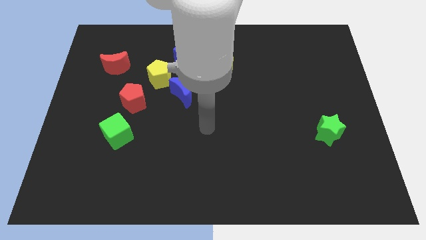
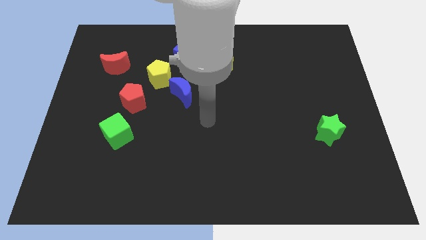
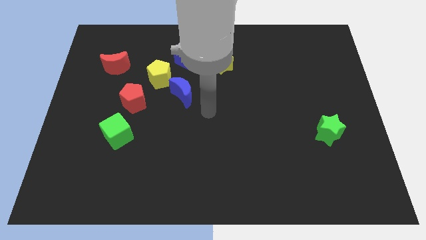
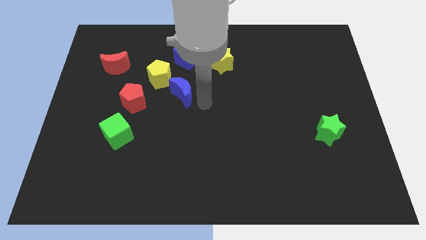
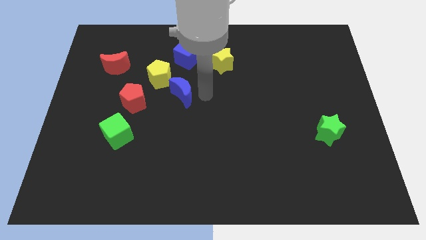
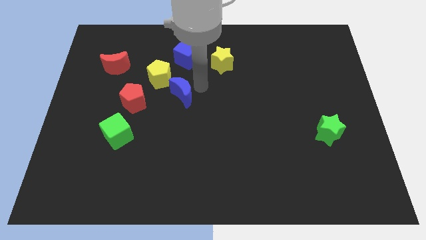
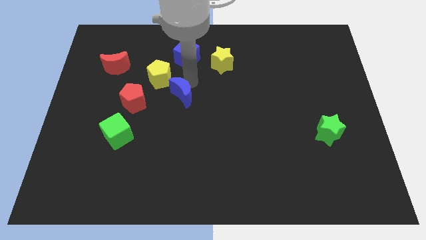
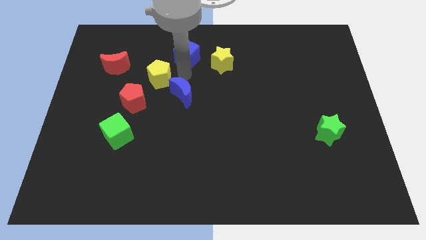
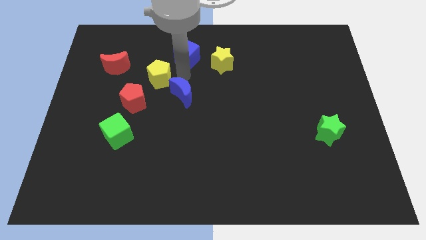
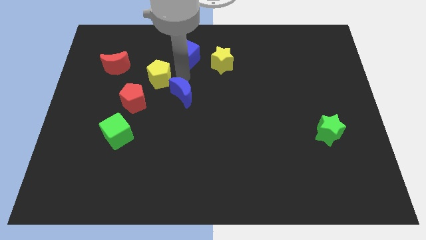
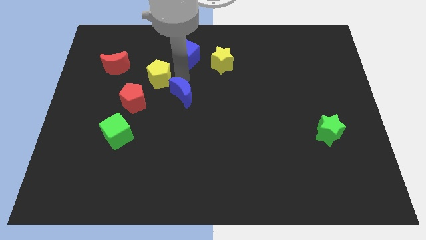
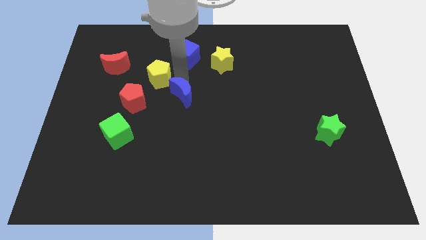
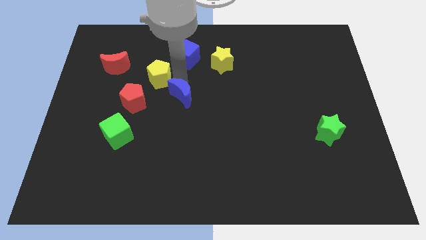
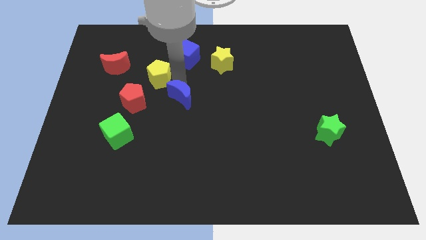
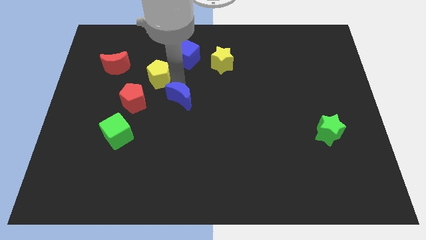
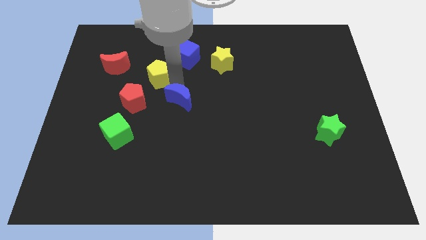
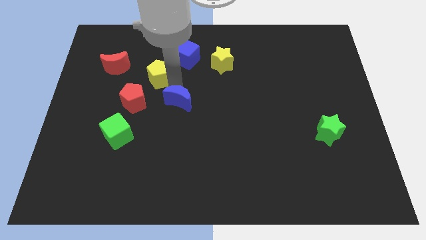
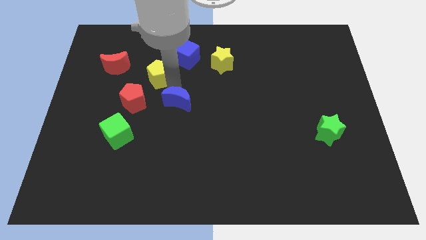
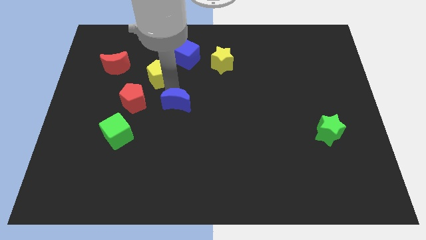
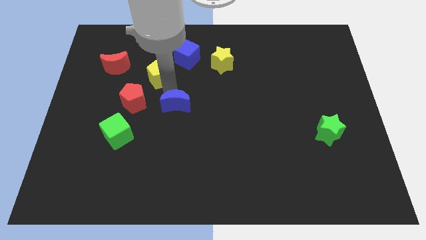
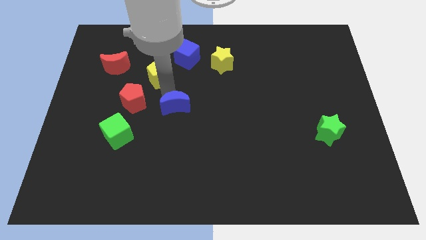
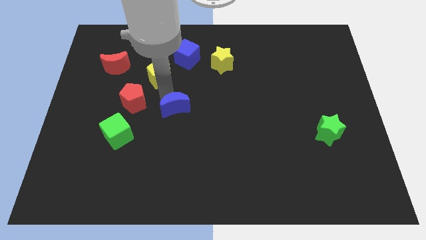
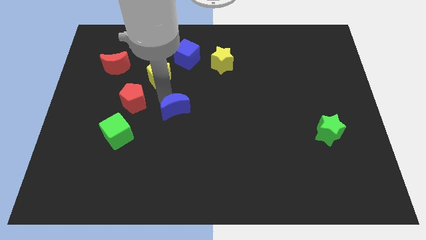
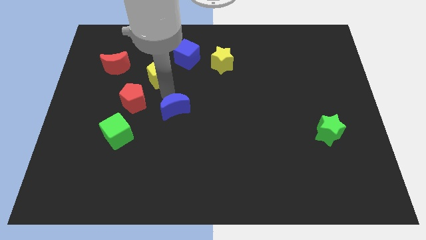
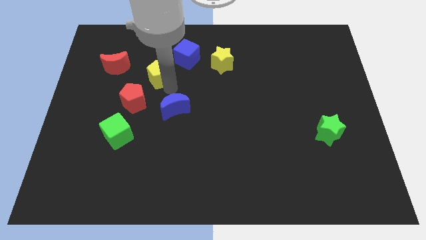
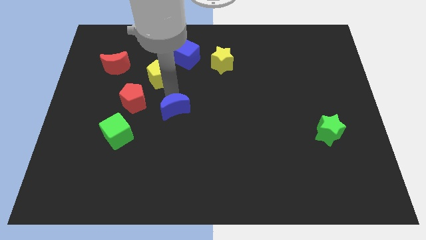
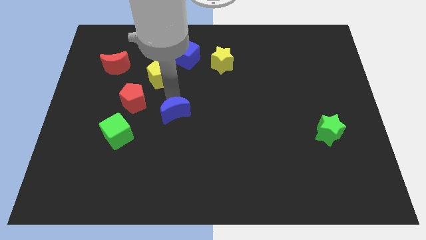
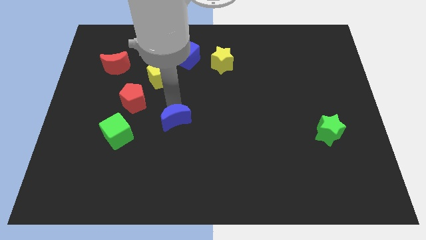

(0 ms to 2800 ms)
slightly move the blue moon downwards

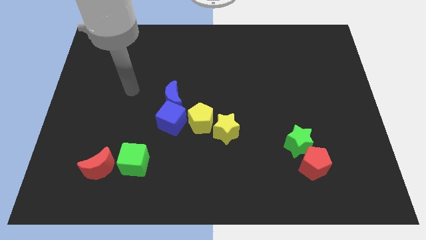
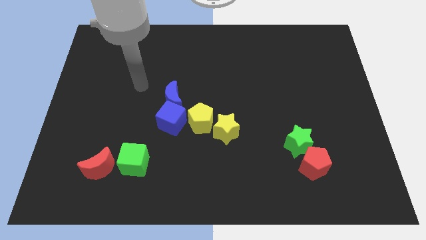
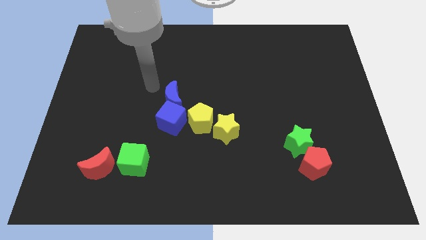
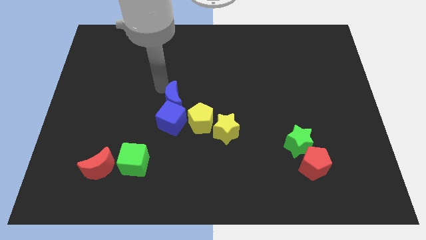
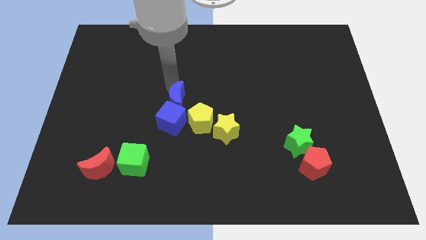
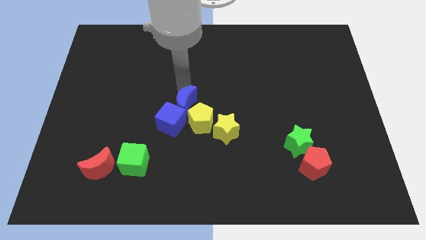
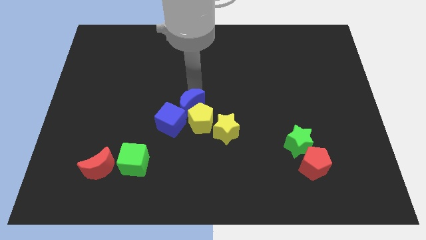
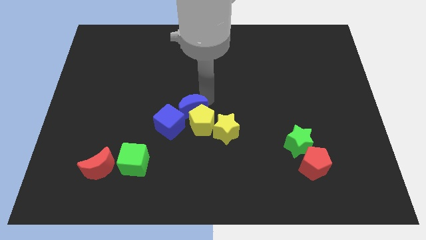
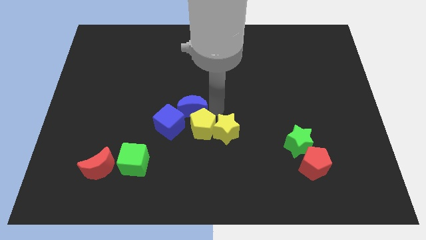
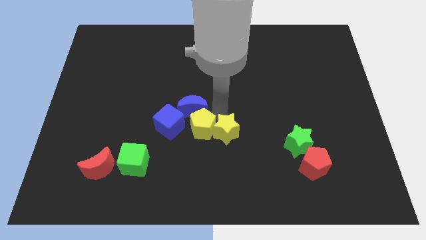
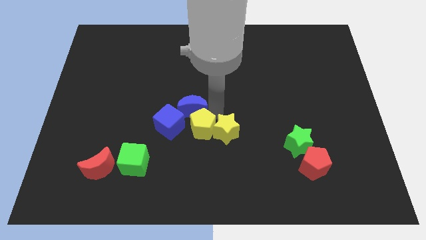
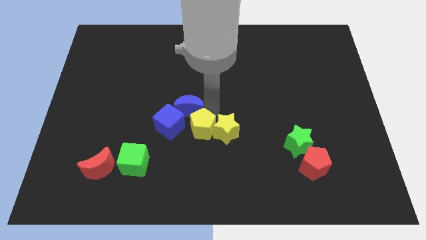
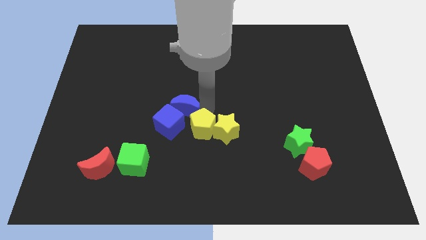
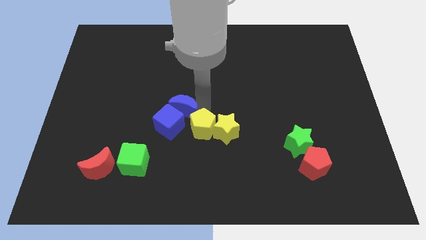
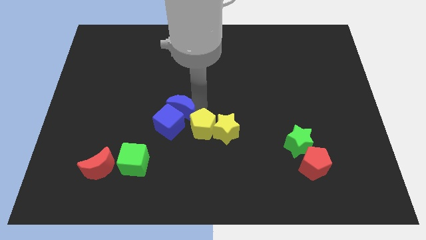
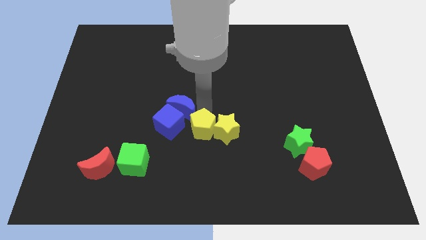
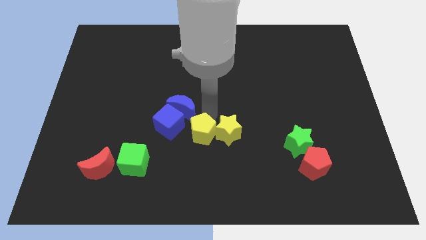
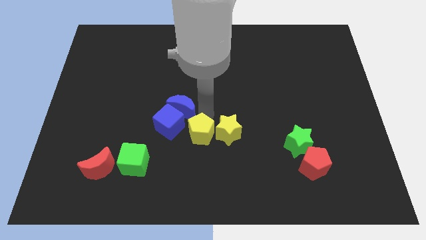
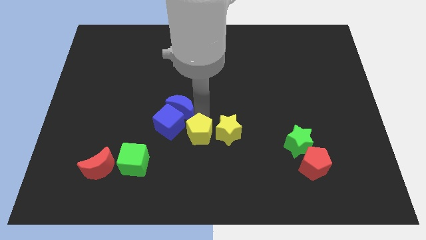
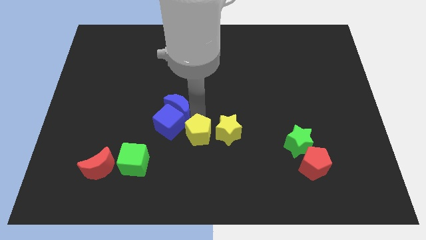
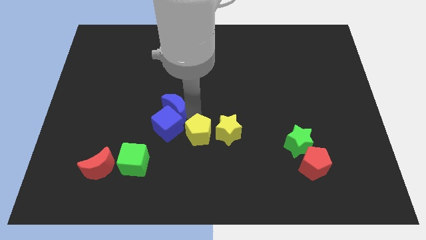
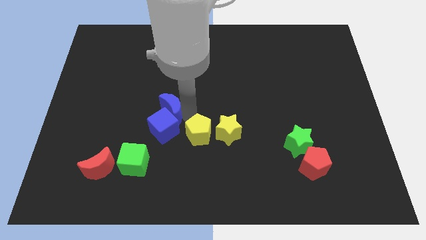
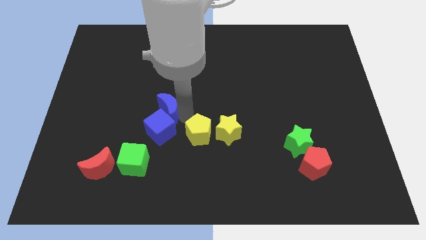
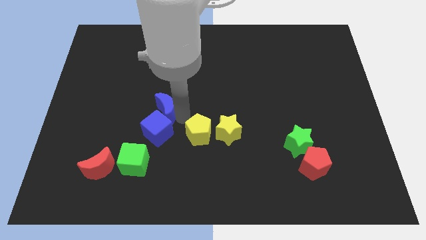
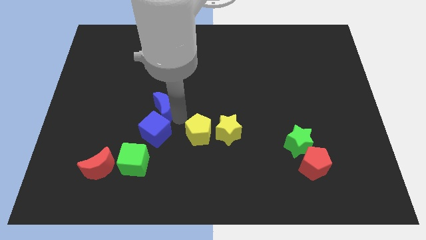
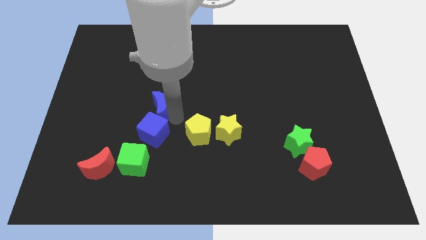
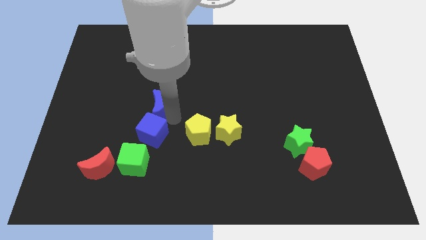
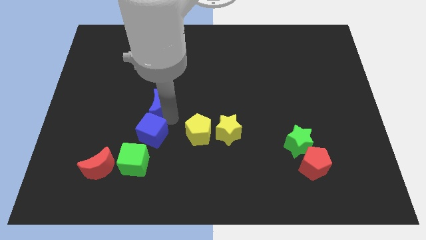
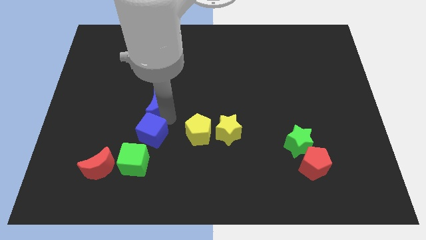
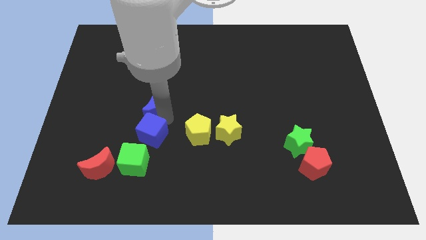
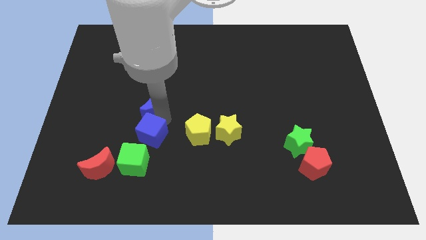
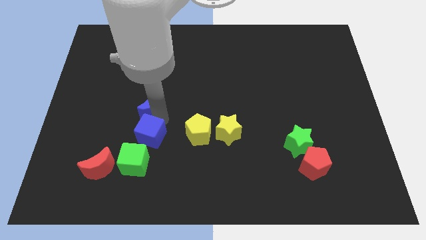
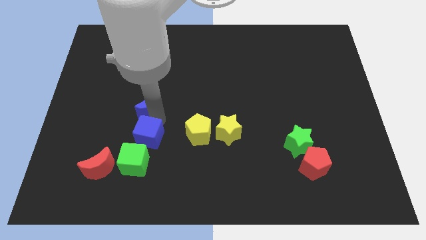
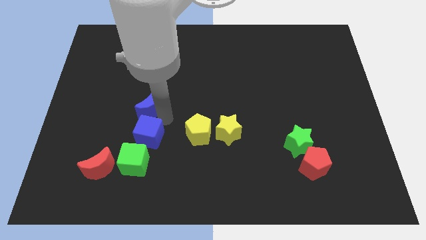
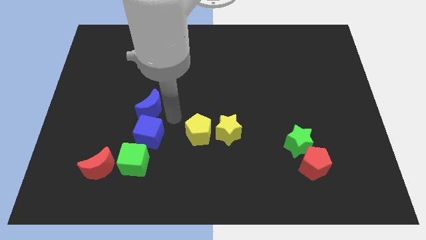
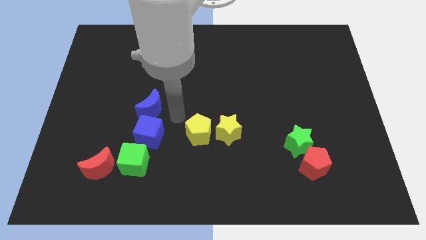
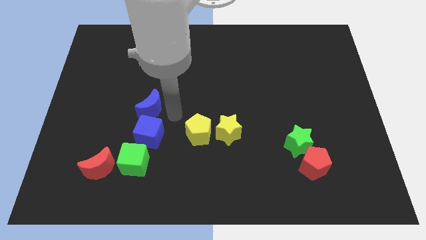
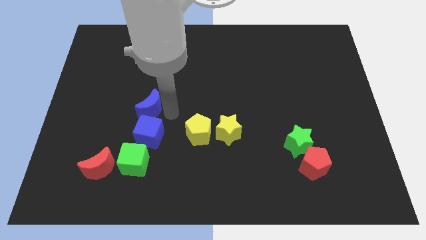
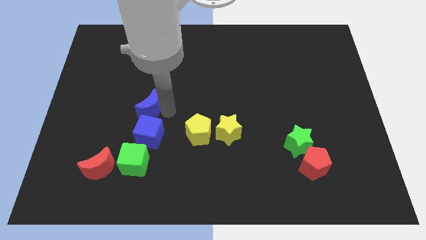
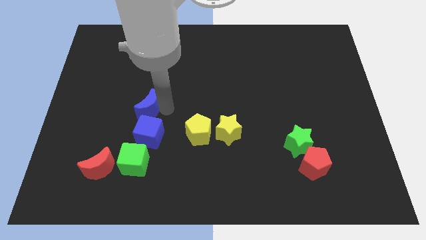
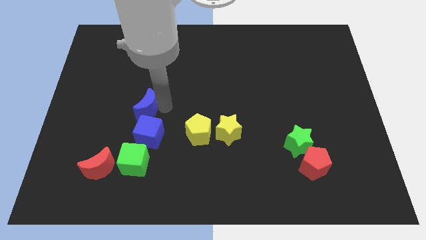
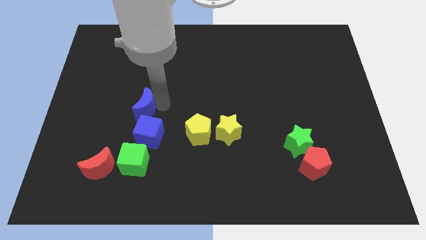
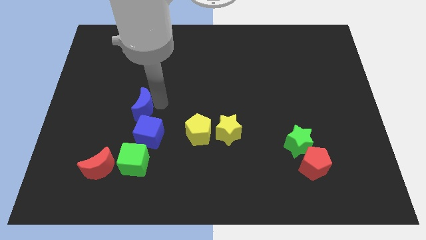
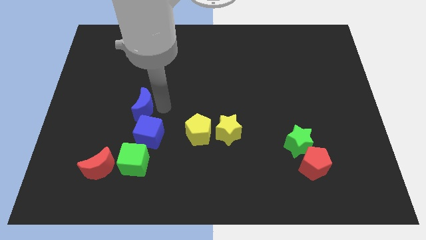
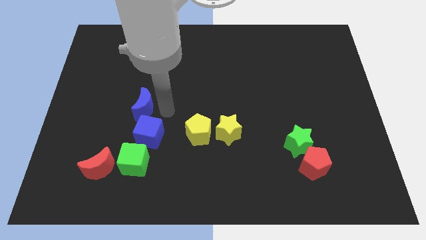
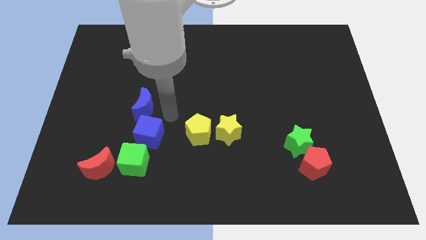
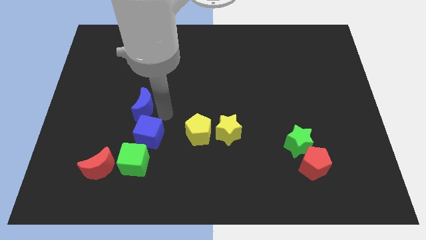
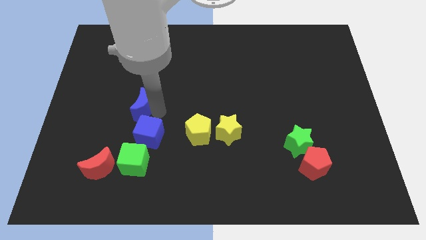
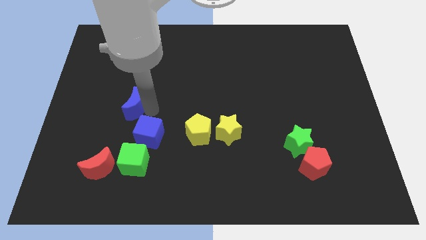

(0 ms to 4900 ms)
push the blue moon to the left a bit
